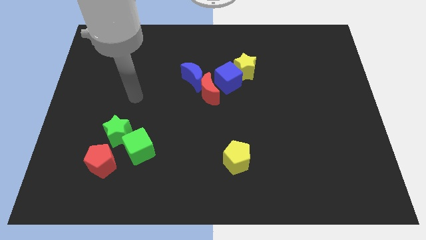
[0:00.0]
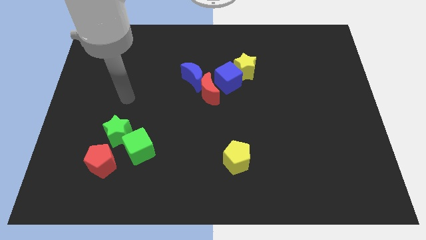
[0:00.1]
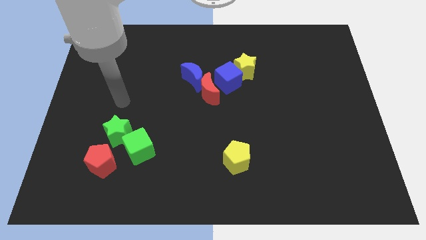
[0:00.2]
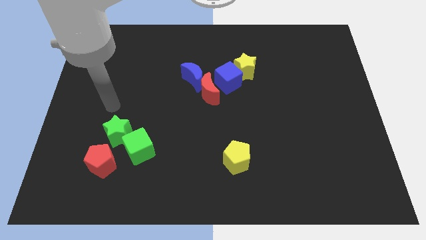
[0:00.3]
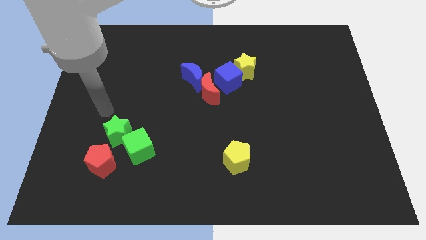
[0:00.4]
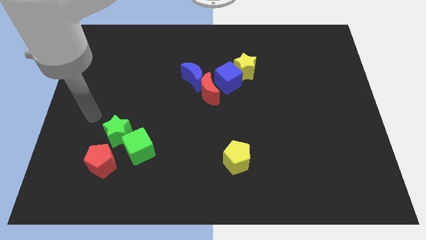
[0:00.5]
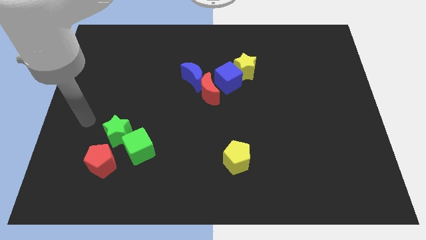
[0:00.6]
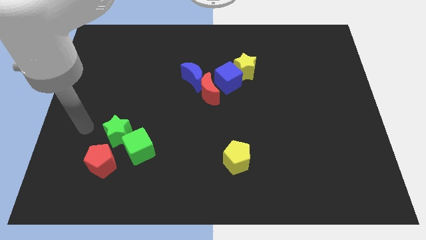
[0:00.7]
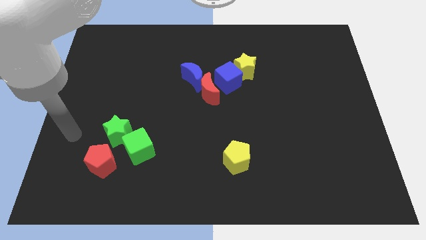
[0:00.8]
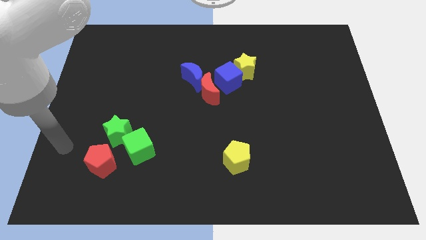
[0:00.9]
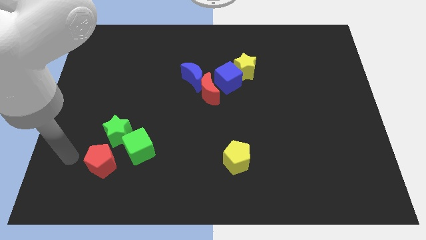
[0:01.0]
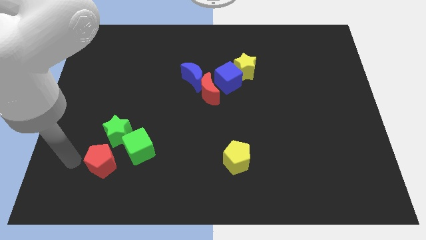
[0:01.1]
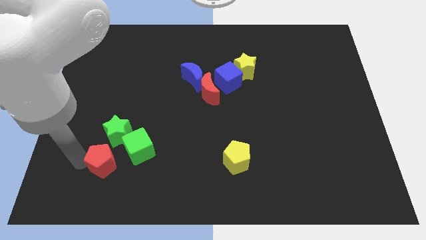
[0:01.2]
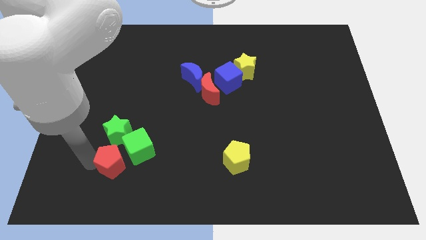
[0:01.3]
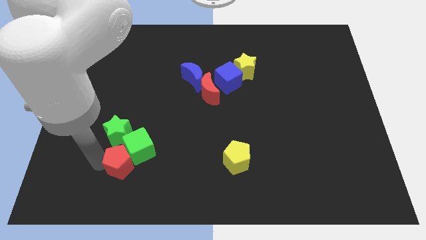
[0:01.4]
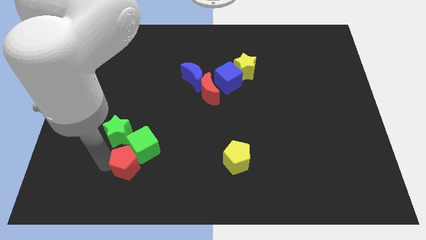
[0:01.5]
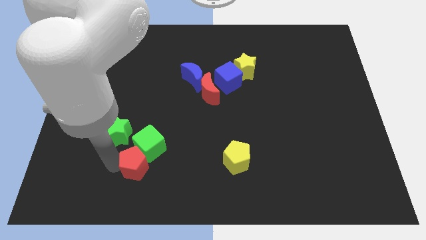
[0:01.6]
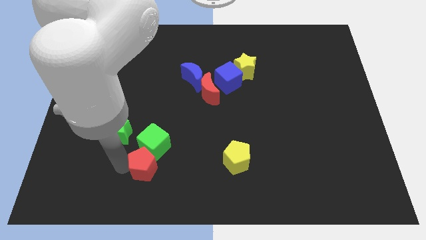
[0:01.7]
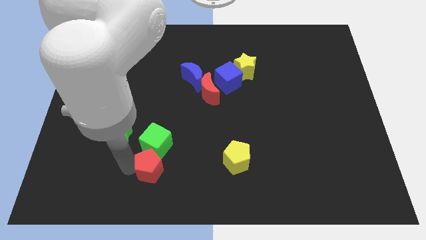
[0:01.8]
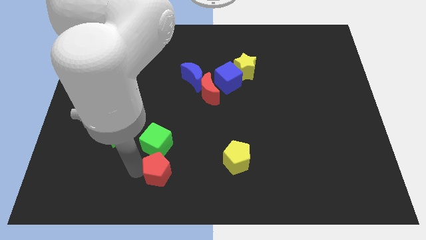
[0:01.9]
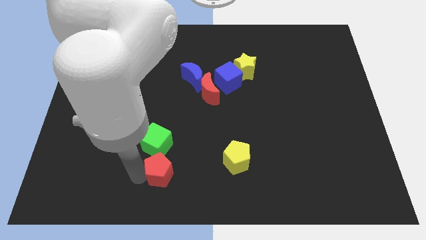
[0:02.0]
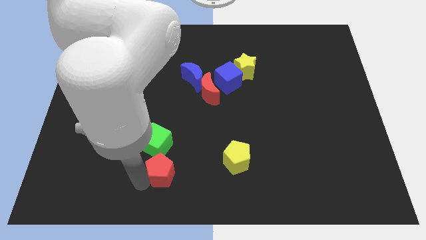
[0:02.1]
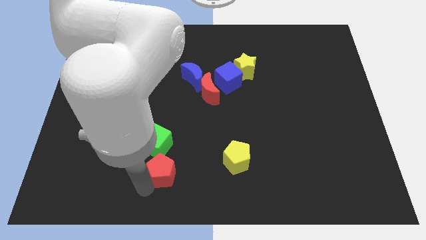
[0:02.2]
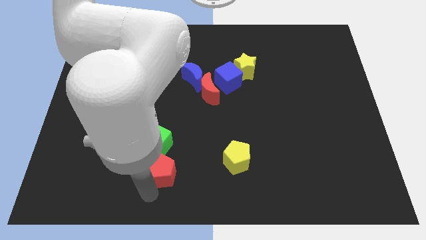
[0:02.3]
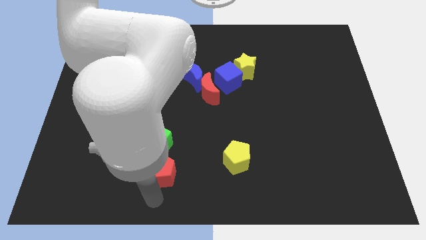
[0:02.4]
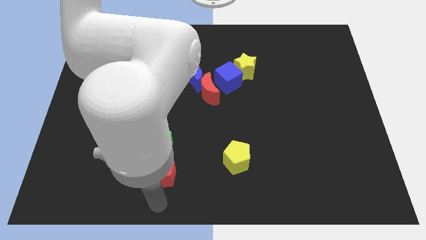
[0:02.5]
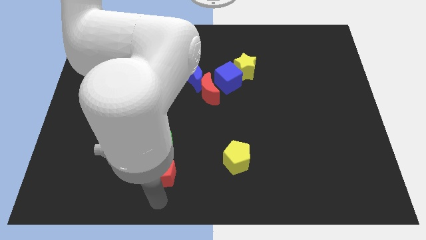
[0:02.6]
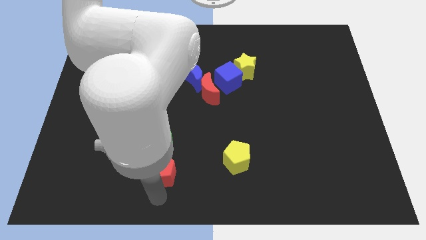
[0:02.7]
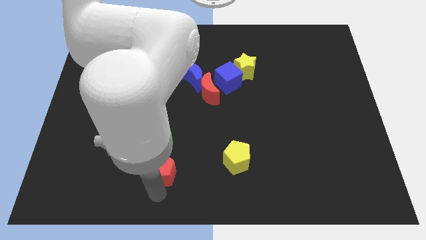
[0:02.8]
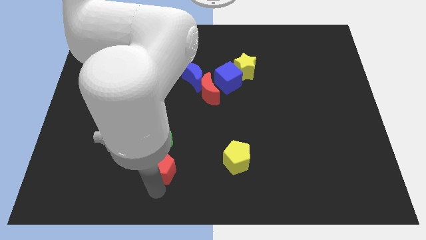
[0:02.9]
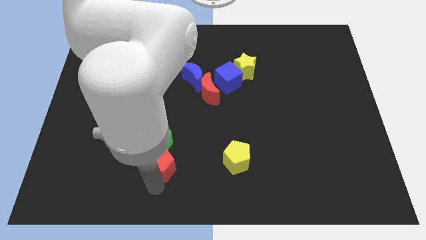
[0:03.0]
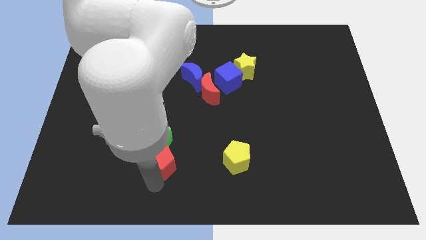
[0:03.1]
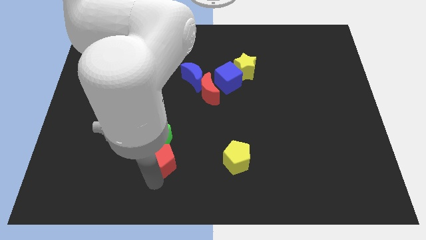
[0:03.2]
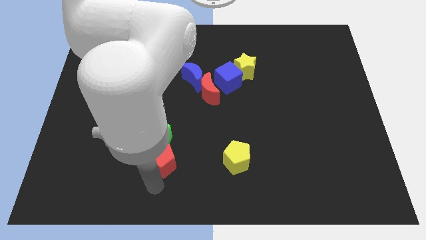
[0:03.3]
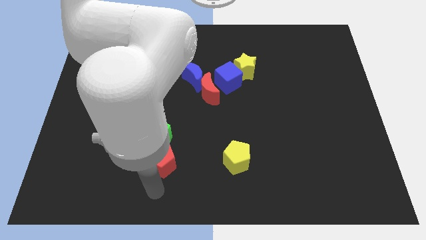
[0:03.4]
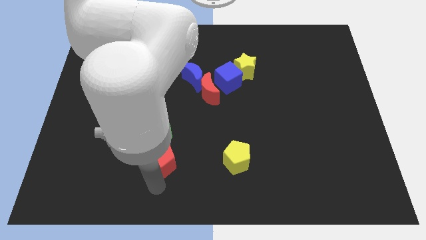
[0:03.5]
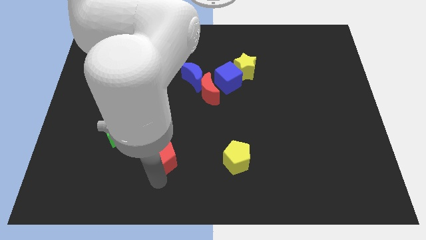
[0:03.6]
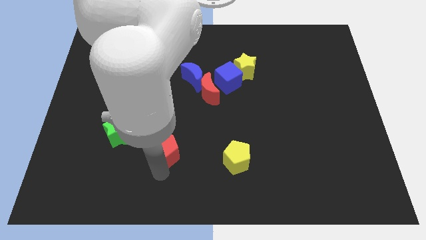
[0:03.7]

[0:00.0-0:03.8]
slightly push the red pentagon up and to the right diagonally

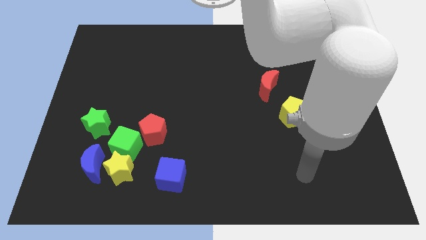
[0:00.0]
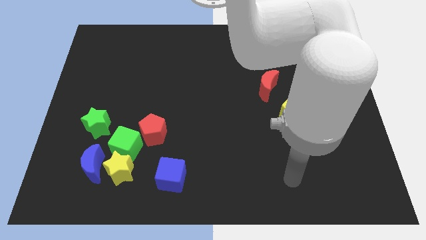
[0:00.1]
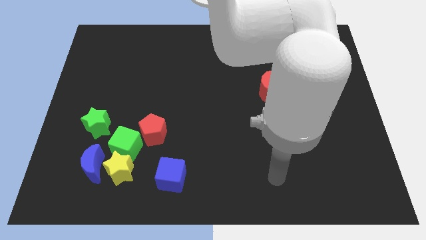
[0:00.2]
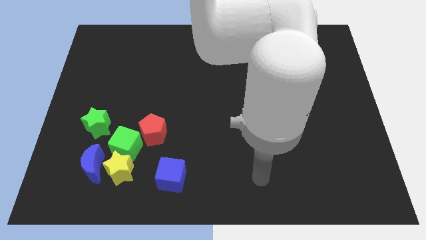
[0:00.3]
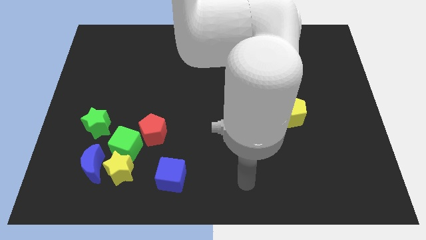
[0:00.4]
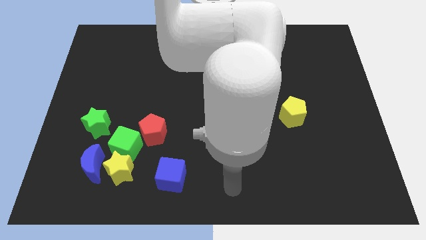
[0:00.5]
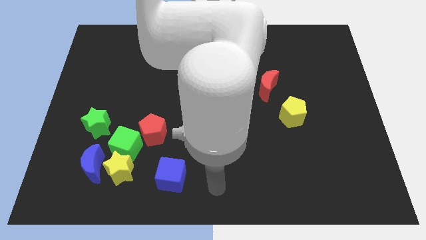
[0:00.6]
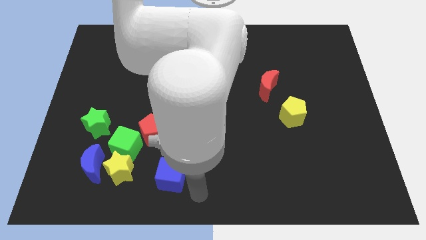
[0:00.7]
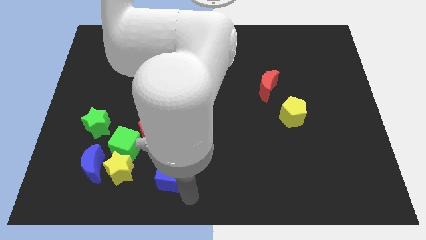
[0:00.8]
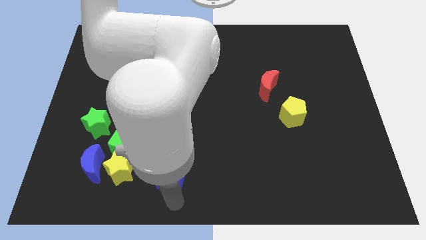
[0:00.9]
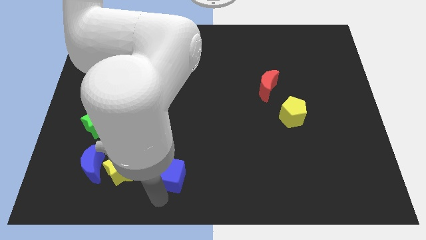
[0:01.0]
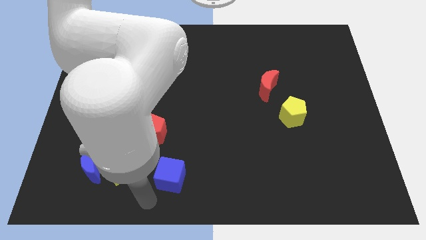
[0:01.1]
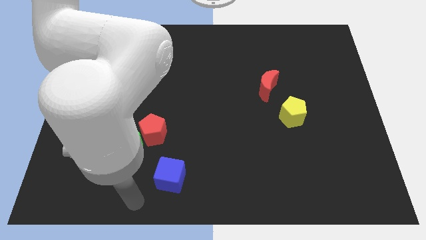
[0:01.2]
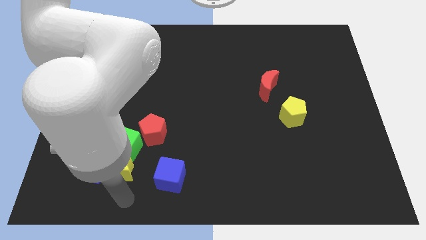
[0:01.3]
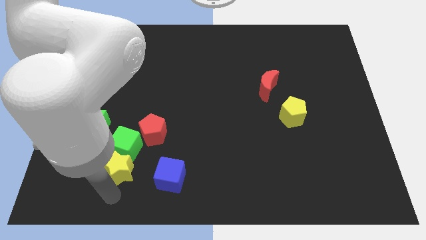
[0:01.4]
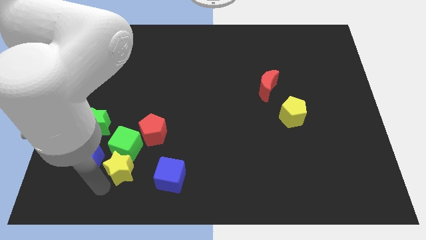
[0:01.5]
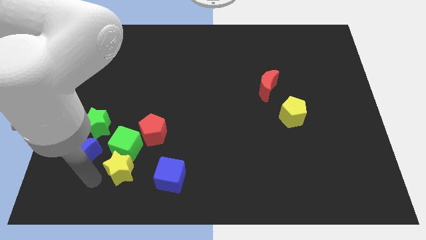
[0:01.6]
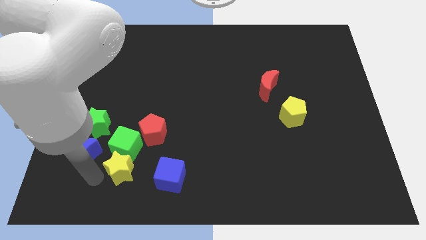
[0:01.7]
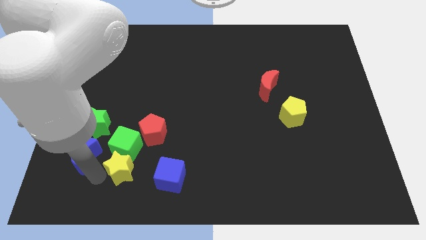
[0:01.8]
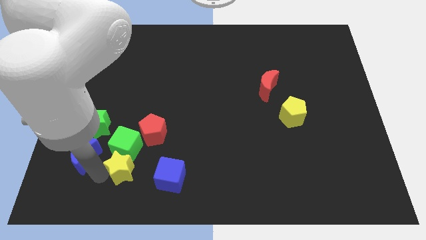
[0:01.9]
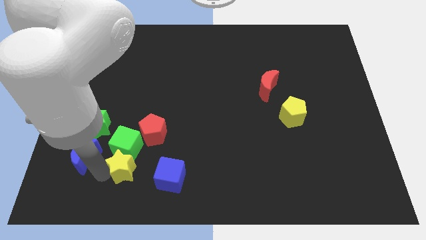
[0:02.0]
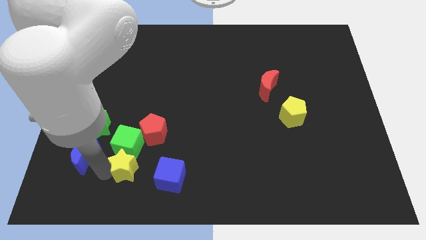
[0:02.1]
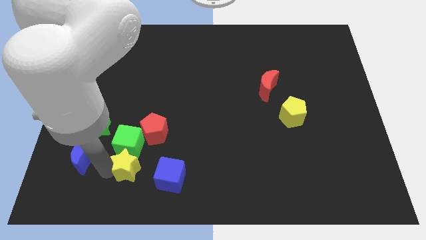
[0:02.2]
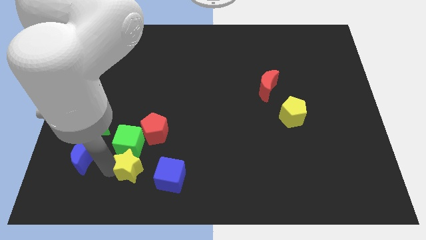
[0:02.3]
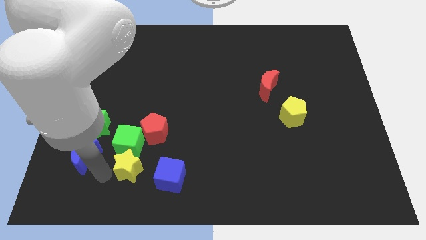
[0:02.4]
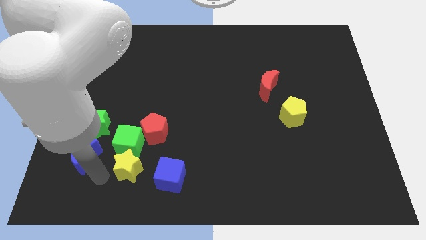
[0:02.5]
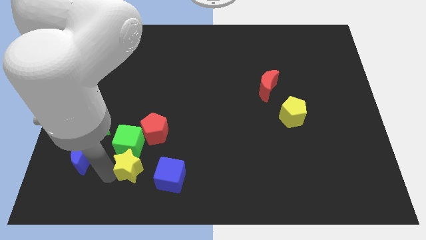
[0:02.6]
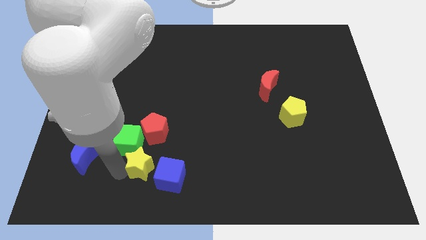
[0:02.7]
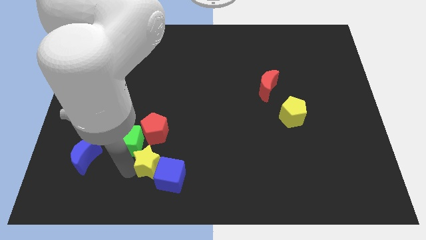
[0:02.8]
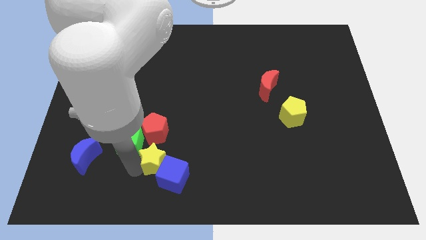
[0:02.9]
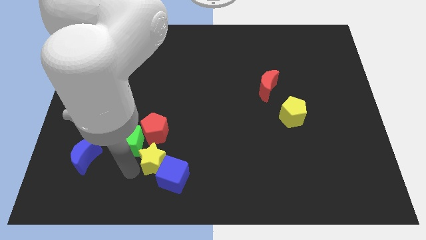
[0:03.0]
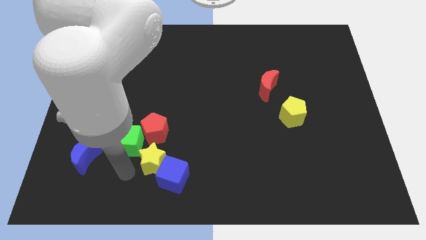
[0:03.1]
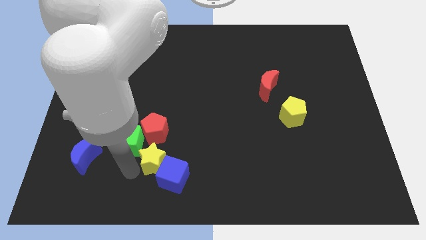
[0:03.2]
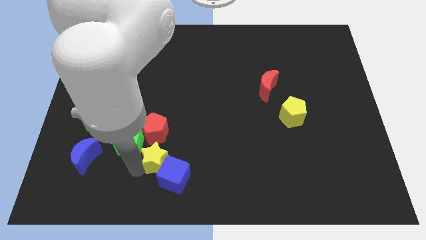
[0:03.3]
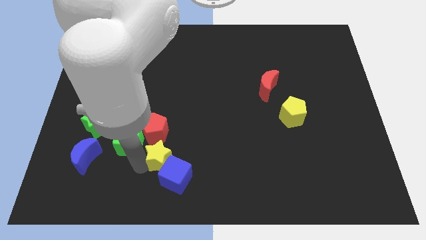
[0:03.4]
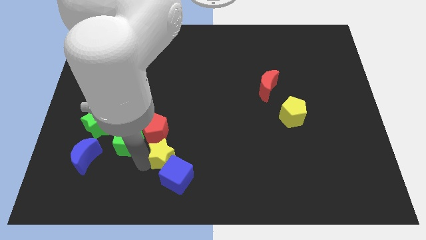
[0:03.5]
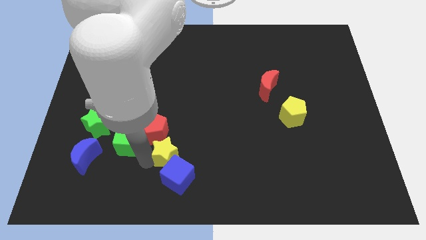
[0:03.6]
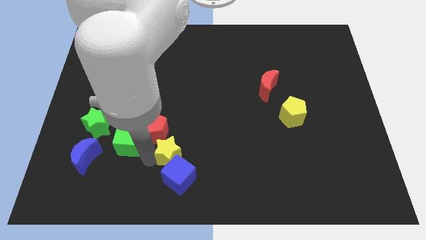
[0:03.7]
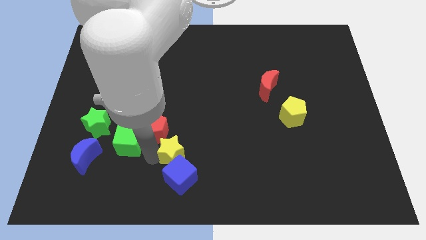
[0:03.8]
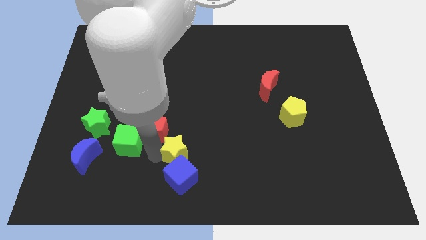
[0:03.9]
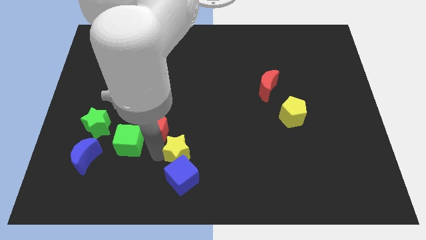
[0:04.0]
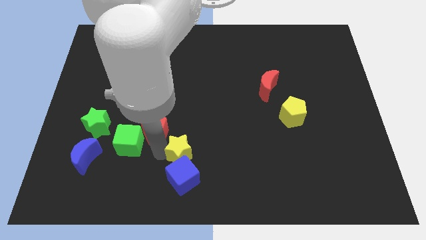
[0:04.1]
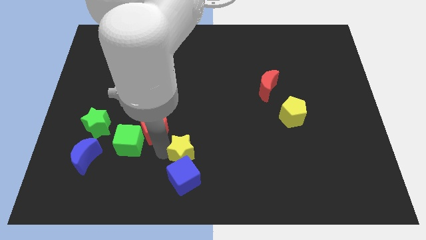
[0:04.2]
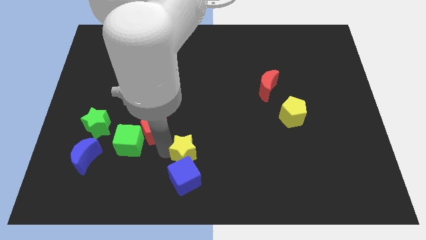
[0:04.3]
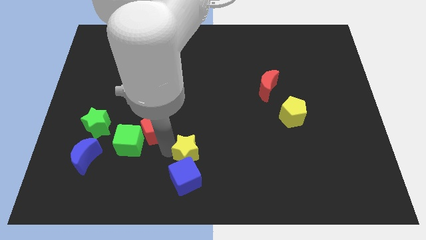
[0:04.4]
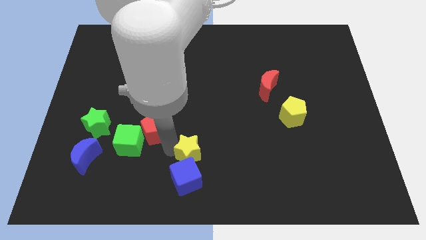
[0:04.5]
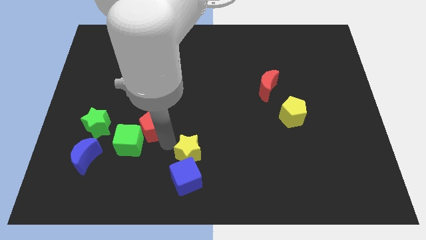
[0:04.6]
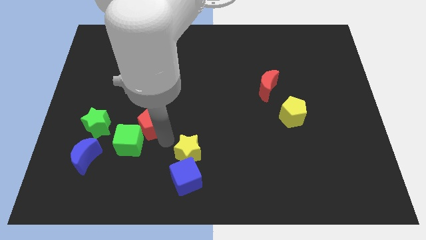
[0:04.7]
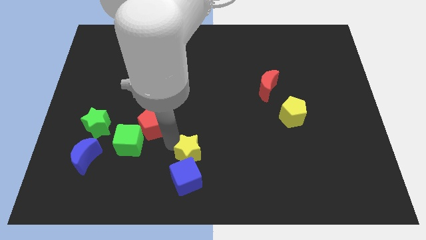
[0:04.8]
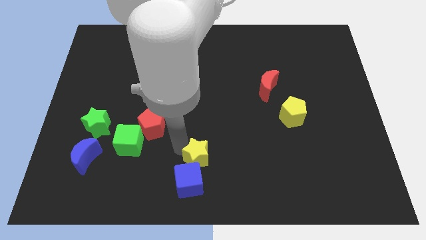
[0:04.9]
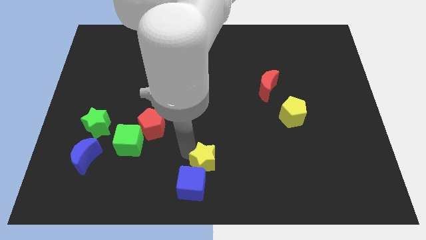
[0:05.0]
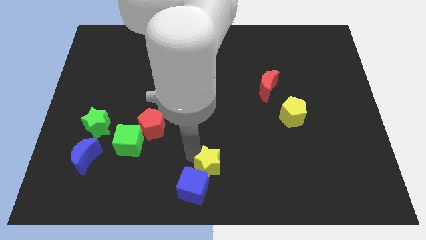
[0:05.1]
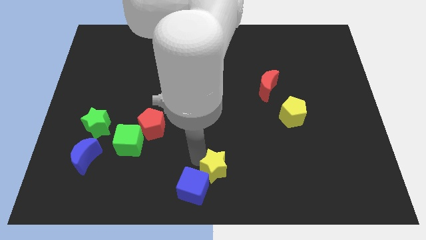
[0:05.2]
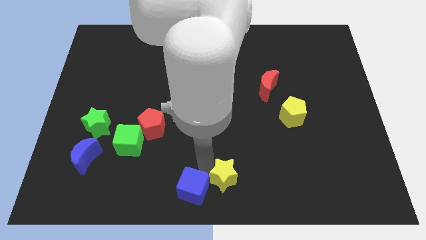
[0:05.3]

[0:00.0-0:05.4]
push the yellow star to the right
